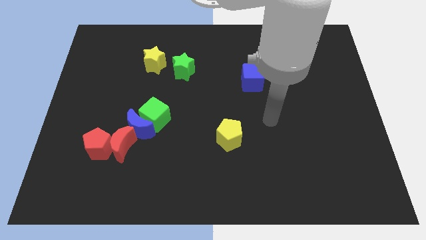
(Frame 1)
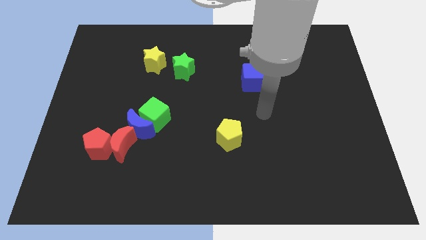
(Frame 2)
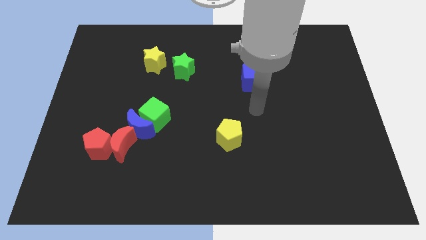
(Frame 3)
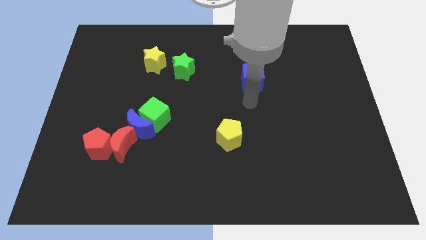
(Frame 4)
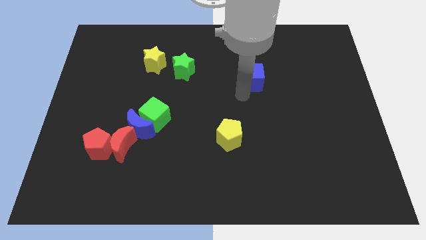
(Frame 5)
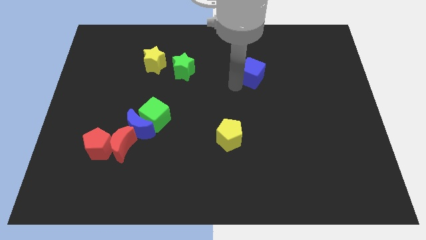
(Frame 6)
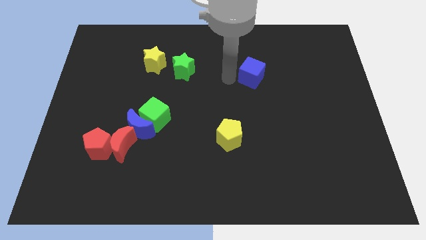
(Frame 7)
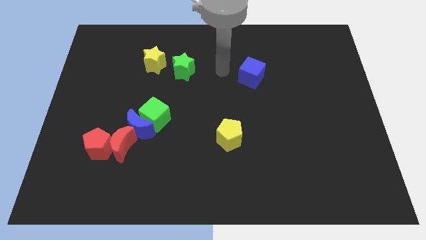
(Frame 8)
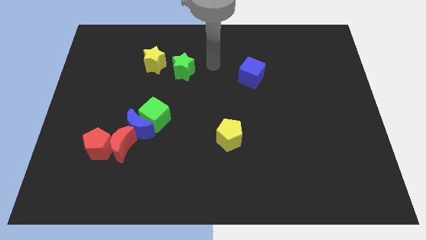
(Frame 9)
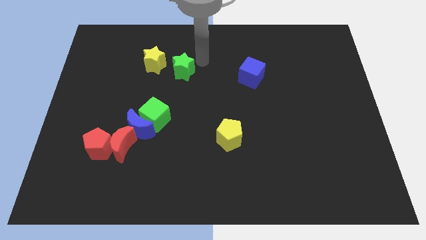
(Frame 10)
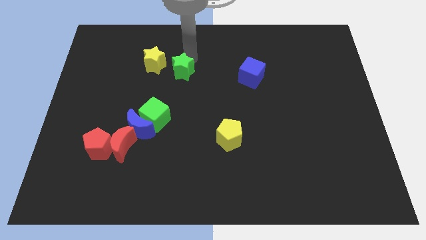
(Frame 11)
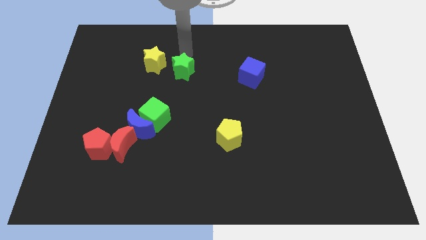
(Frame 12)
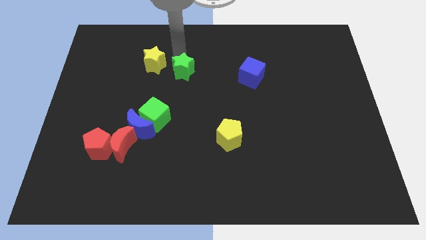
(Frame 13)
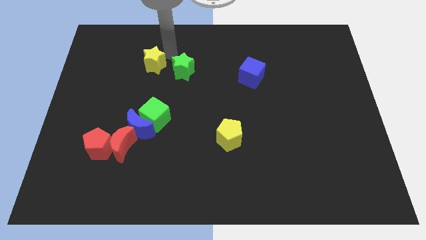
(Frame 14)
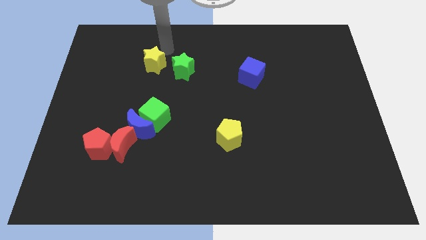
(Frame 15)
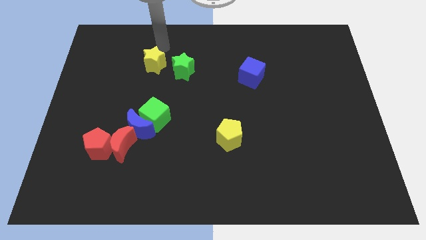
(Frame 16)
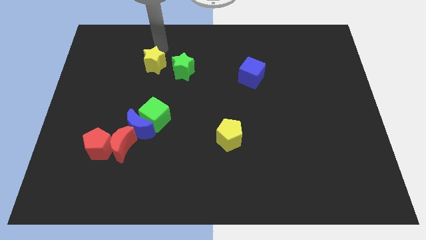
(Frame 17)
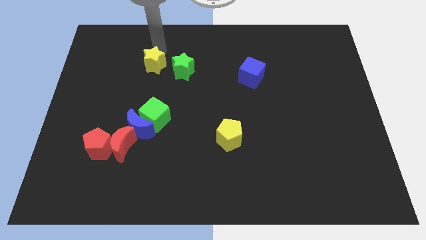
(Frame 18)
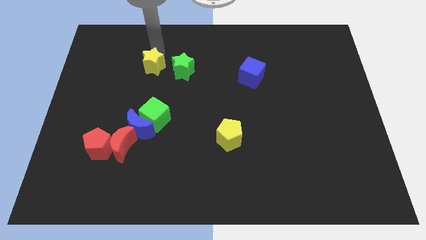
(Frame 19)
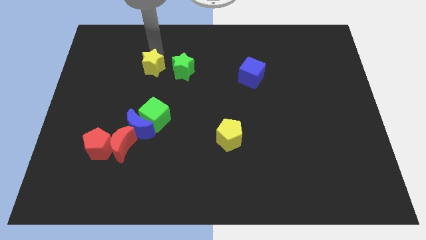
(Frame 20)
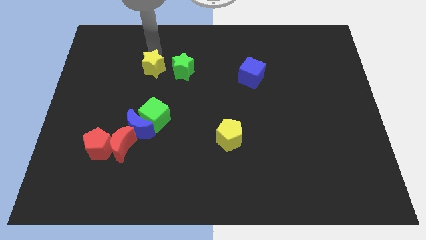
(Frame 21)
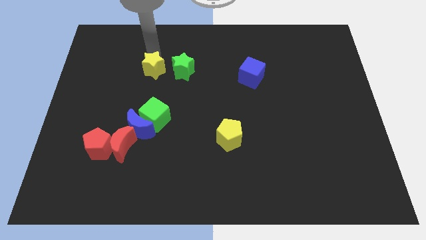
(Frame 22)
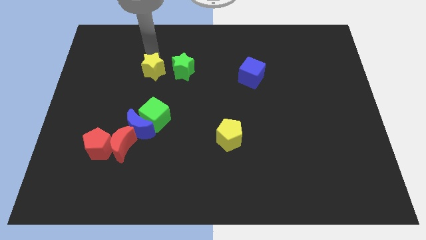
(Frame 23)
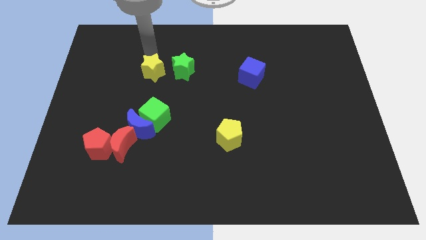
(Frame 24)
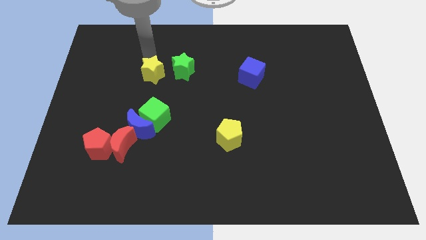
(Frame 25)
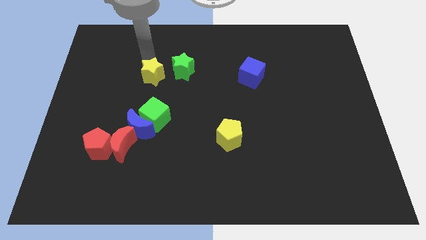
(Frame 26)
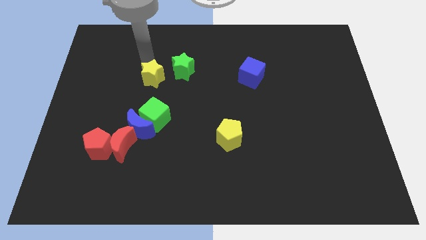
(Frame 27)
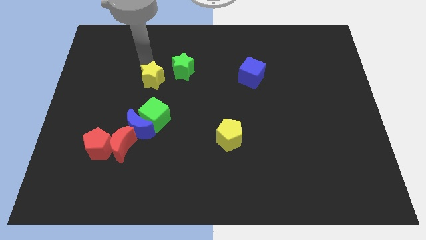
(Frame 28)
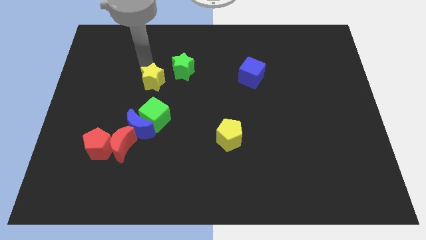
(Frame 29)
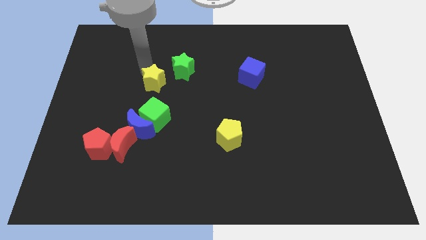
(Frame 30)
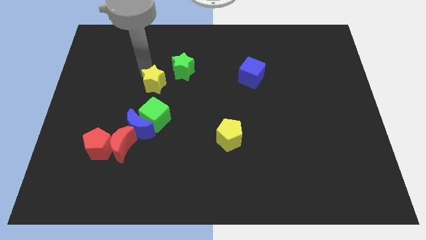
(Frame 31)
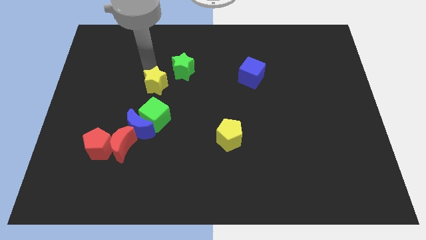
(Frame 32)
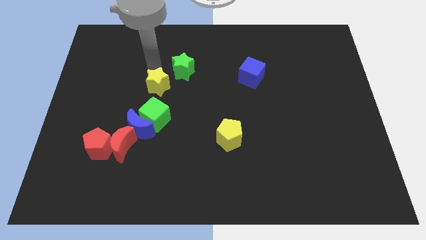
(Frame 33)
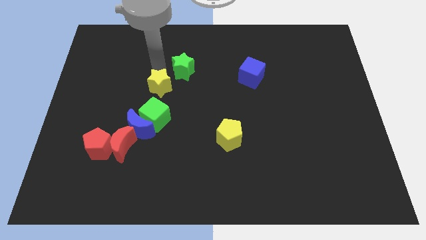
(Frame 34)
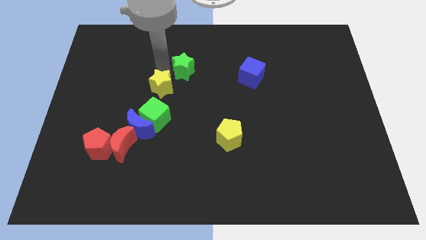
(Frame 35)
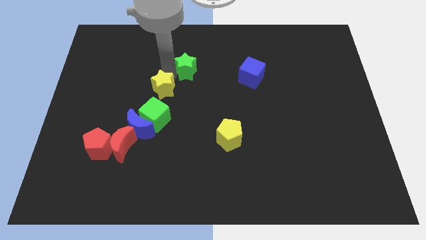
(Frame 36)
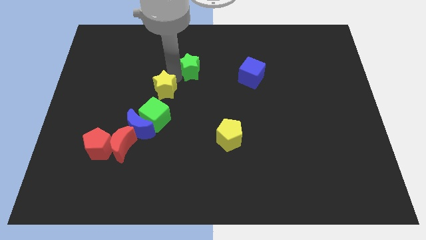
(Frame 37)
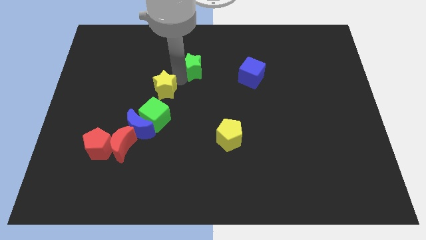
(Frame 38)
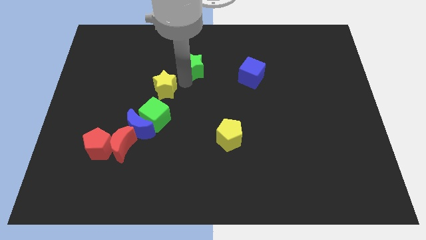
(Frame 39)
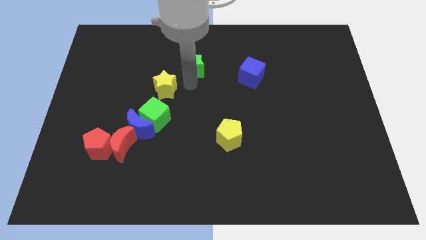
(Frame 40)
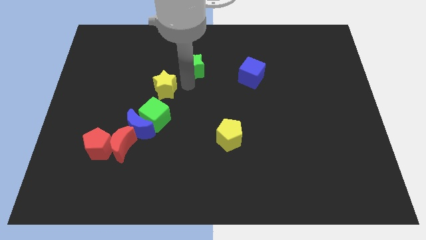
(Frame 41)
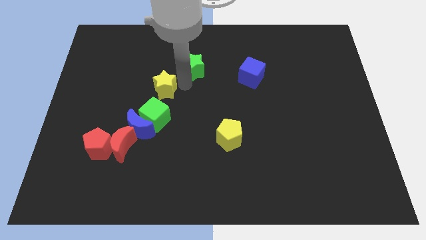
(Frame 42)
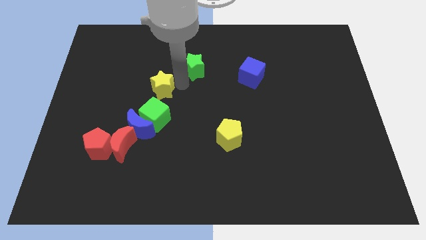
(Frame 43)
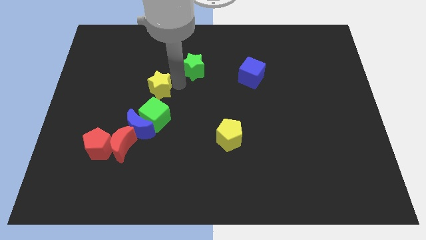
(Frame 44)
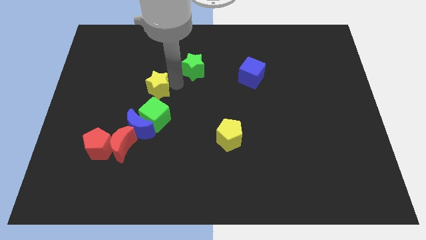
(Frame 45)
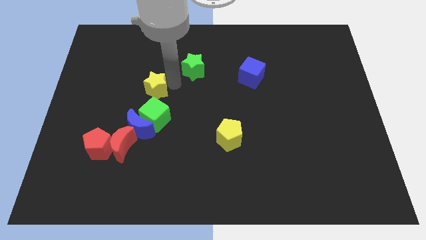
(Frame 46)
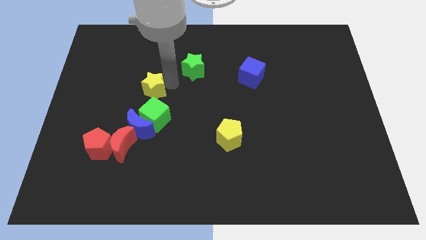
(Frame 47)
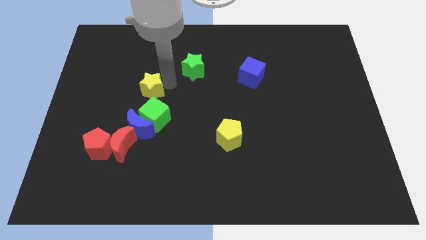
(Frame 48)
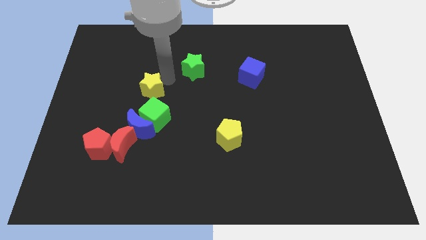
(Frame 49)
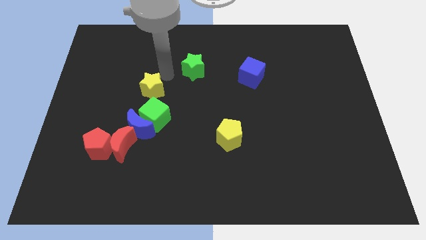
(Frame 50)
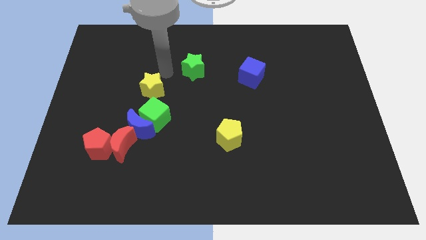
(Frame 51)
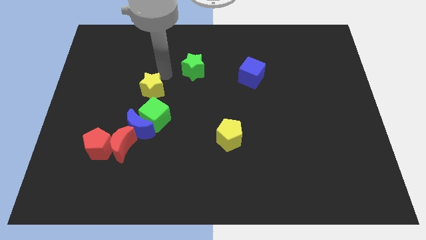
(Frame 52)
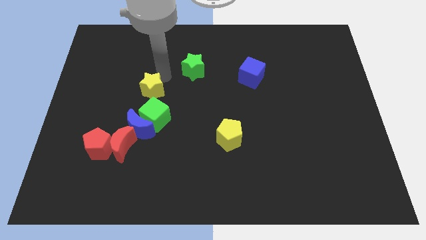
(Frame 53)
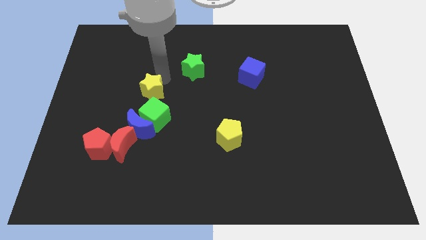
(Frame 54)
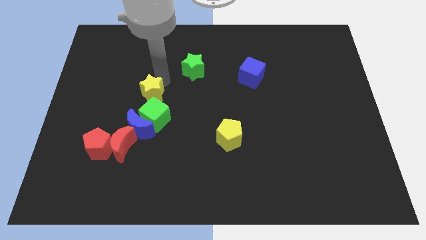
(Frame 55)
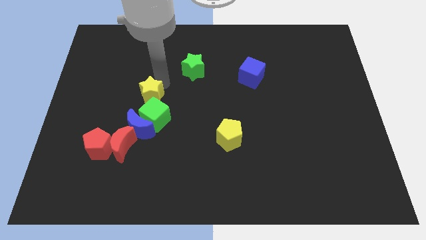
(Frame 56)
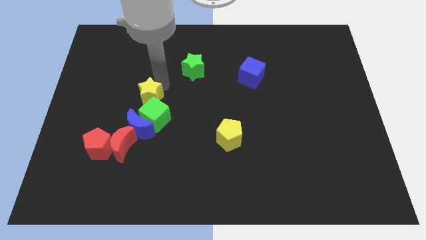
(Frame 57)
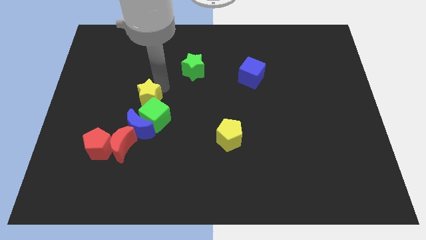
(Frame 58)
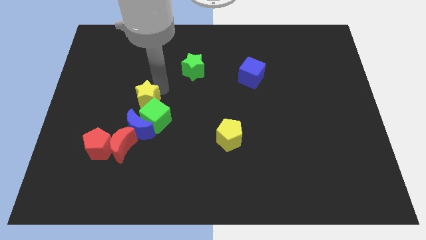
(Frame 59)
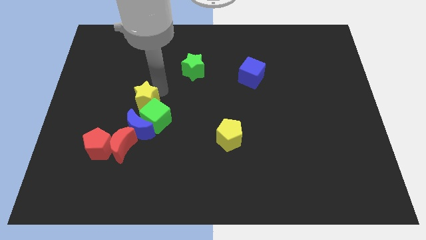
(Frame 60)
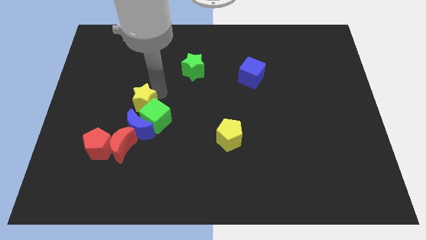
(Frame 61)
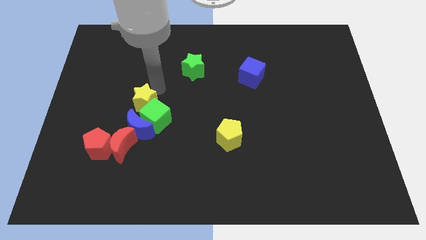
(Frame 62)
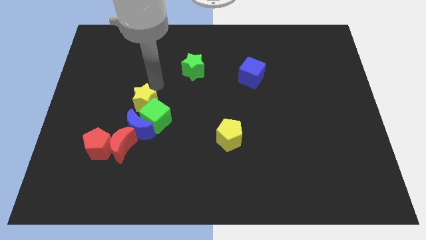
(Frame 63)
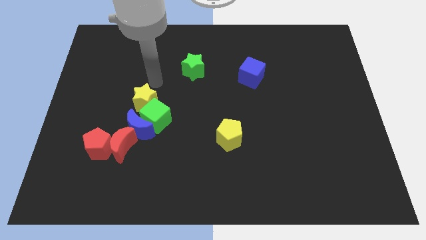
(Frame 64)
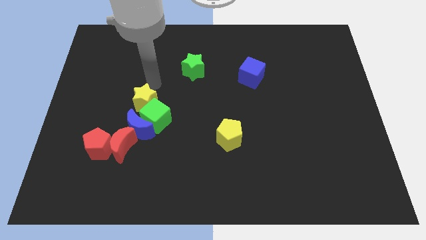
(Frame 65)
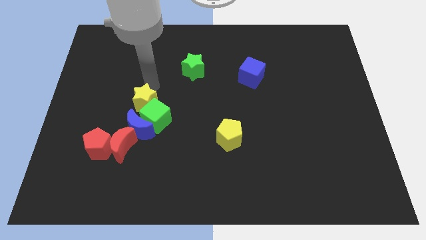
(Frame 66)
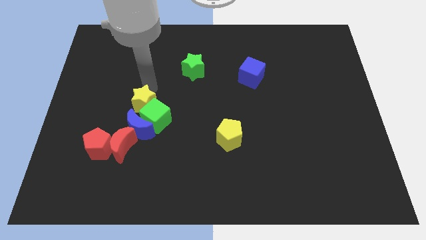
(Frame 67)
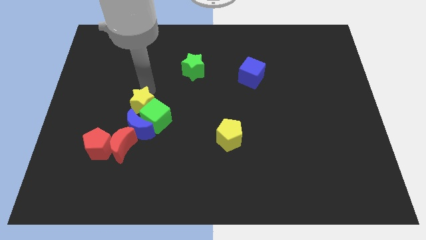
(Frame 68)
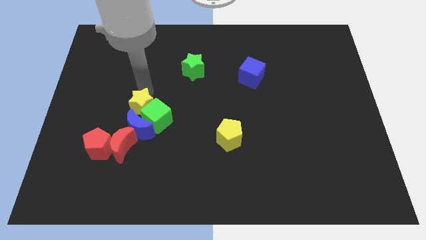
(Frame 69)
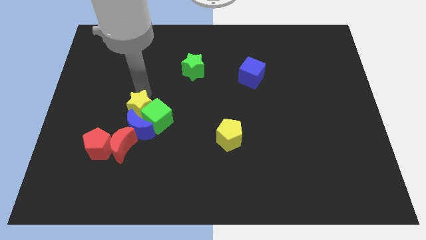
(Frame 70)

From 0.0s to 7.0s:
push the yellow star towards the blue moon

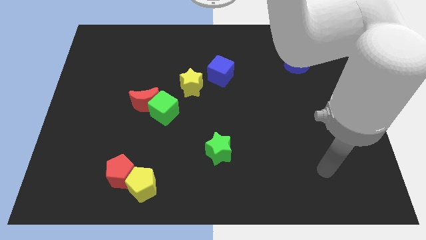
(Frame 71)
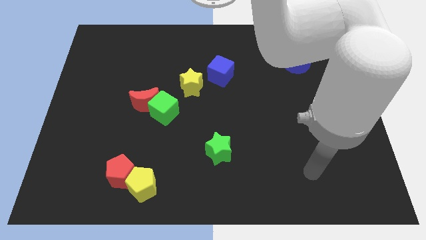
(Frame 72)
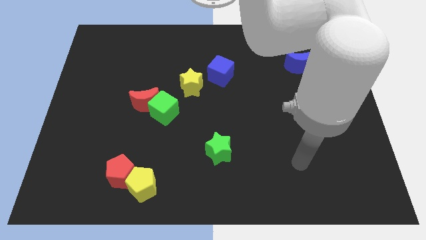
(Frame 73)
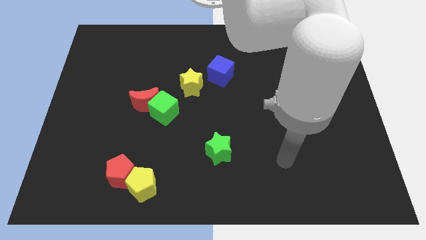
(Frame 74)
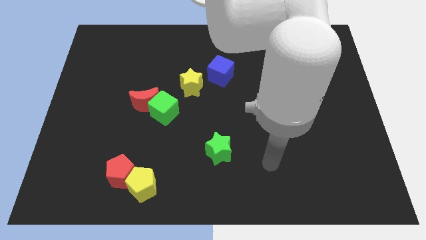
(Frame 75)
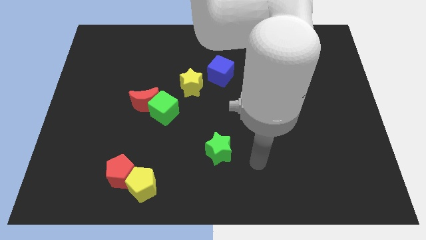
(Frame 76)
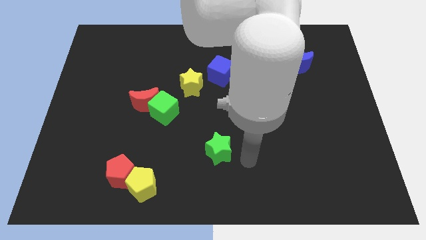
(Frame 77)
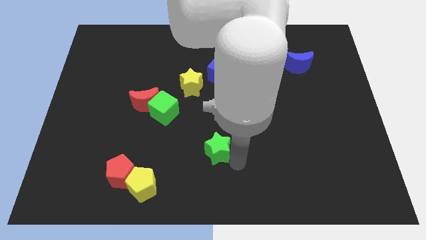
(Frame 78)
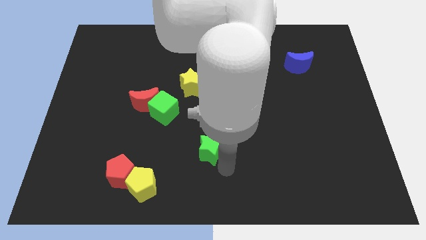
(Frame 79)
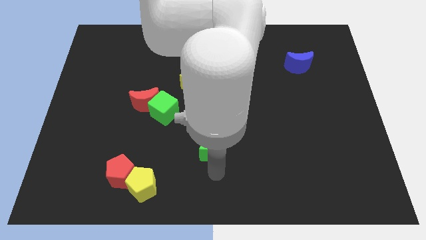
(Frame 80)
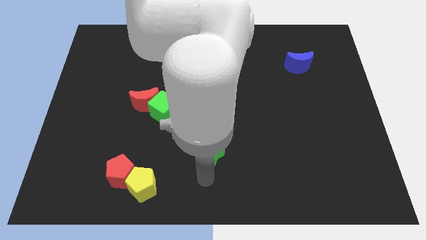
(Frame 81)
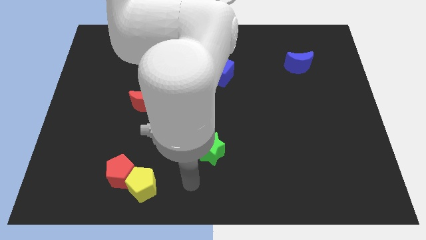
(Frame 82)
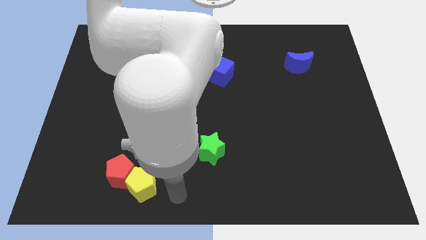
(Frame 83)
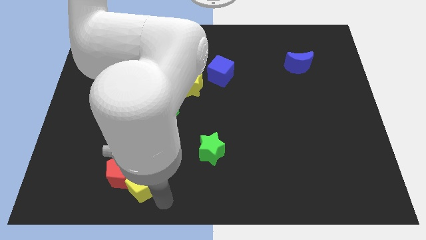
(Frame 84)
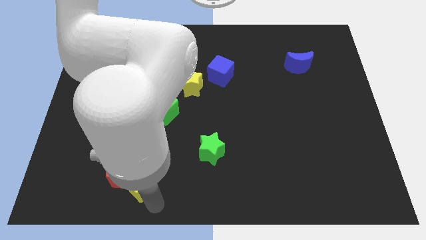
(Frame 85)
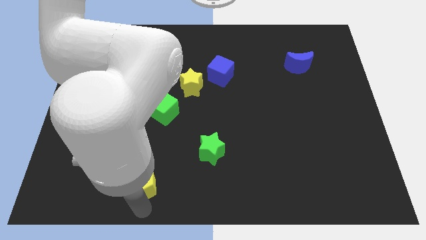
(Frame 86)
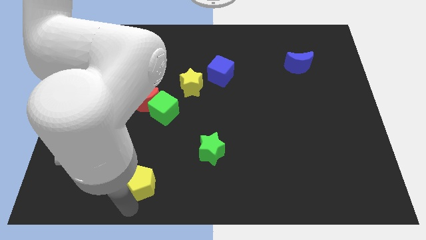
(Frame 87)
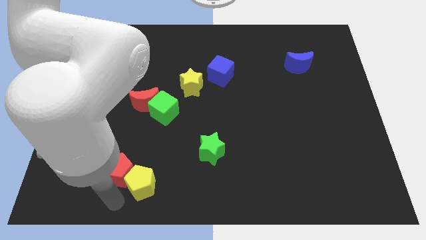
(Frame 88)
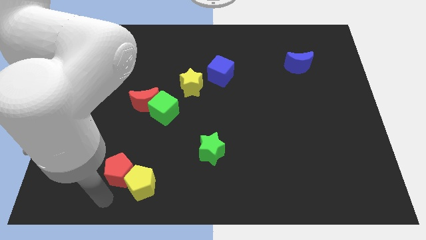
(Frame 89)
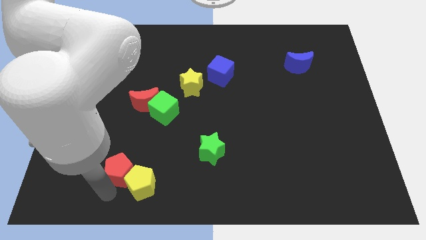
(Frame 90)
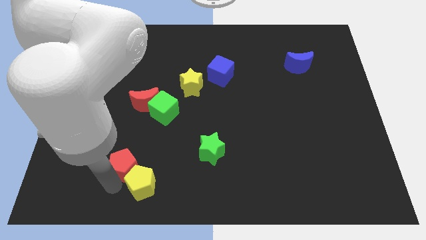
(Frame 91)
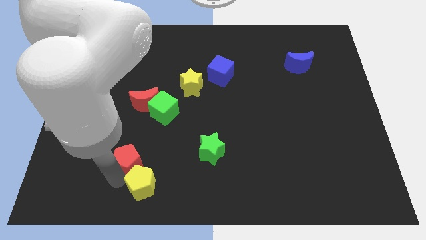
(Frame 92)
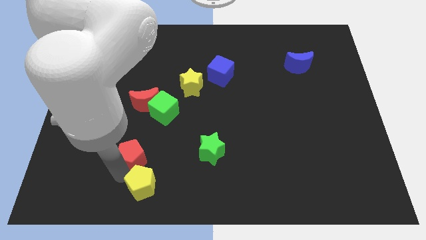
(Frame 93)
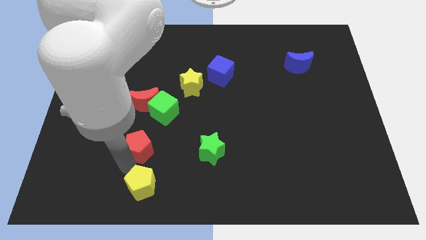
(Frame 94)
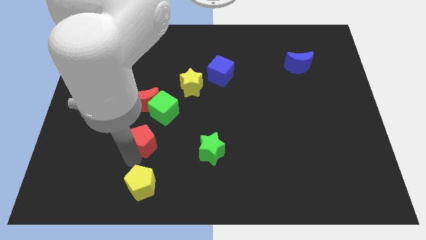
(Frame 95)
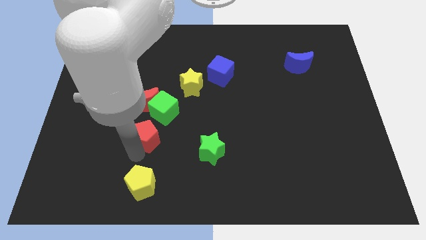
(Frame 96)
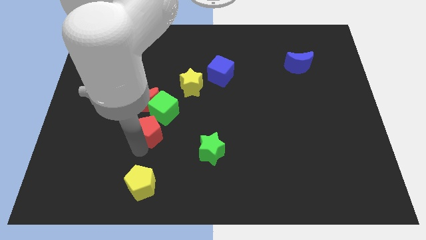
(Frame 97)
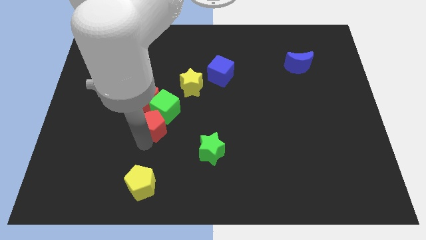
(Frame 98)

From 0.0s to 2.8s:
put the red pentagon to the green cube
